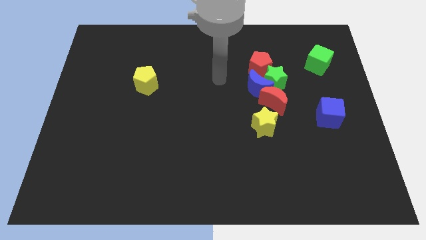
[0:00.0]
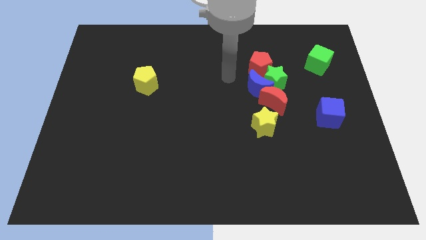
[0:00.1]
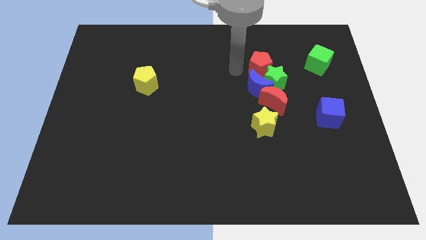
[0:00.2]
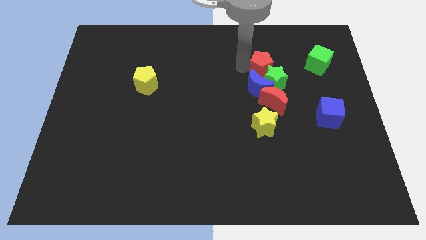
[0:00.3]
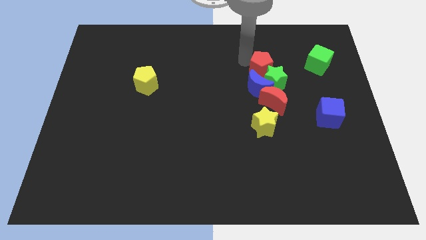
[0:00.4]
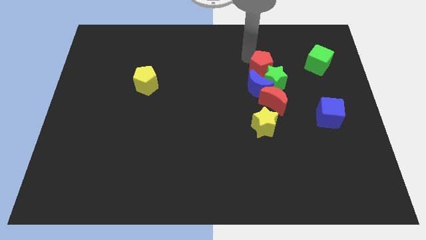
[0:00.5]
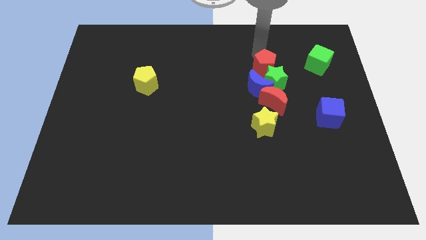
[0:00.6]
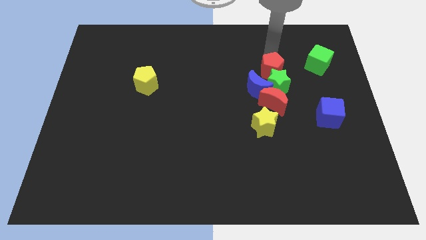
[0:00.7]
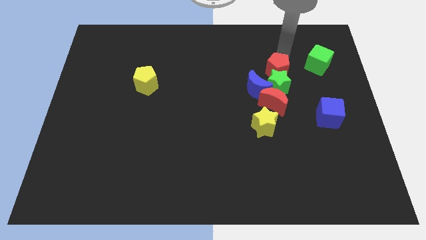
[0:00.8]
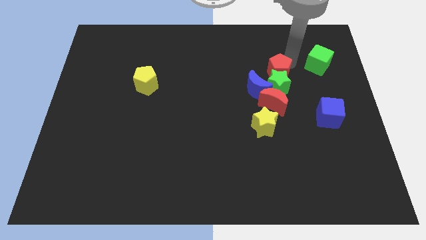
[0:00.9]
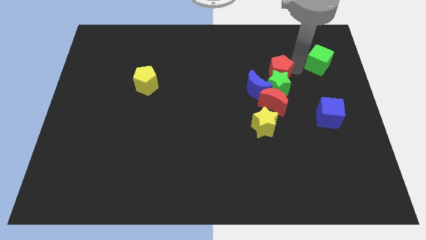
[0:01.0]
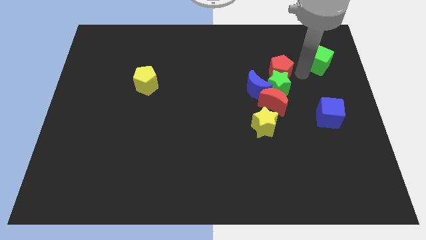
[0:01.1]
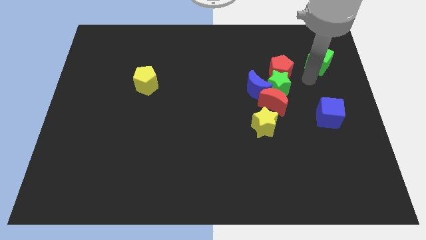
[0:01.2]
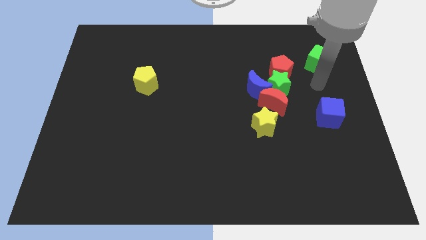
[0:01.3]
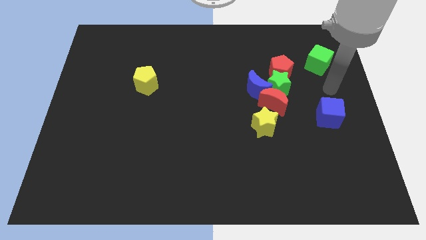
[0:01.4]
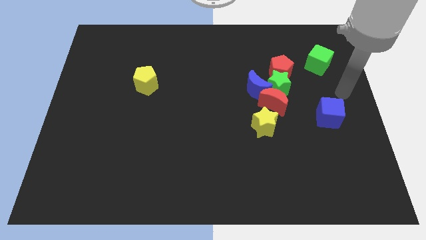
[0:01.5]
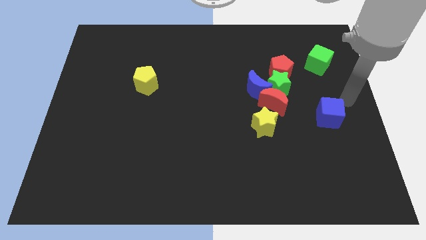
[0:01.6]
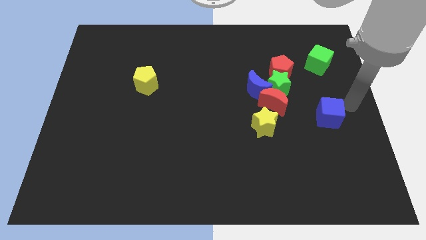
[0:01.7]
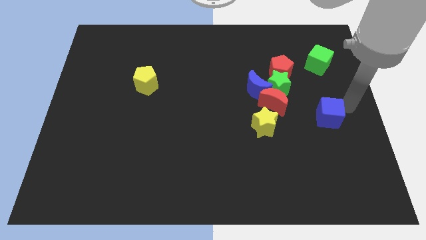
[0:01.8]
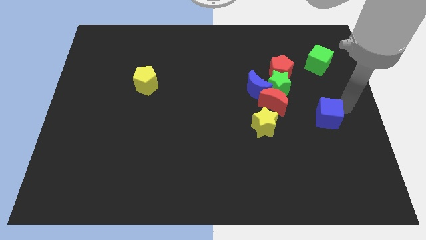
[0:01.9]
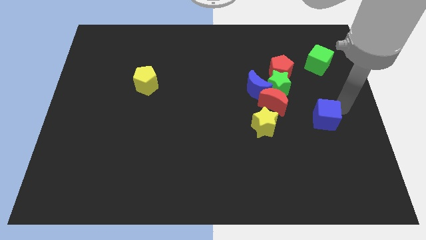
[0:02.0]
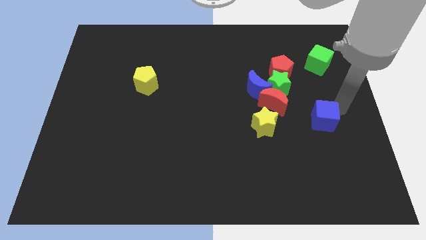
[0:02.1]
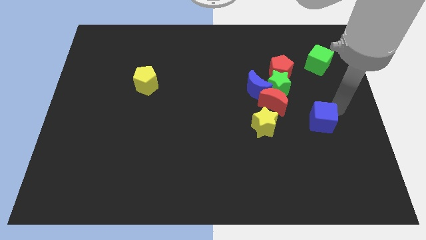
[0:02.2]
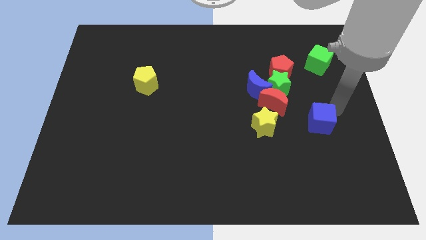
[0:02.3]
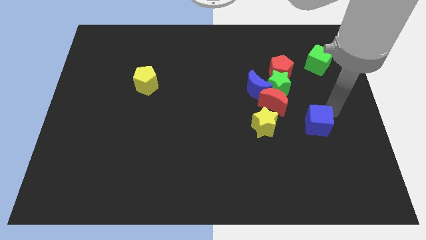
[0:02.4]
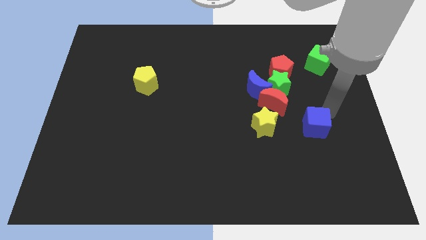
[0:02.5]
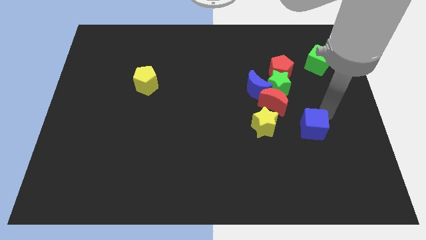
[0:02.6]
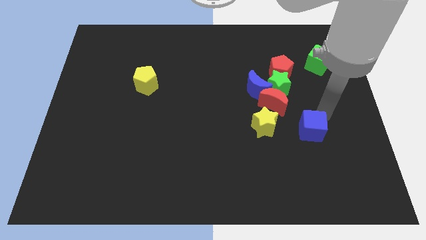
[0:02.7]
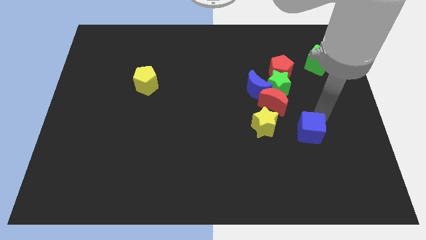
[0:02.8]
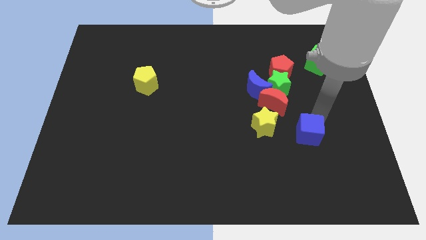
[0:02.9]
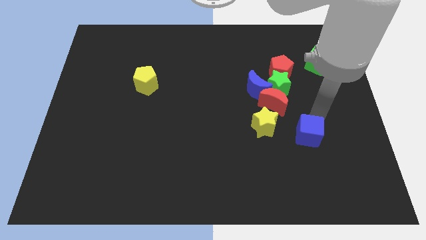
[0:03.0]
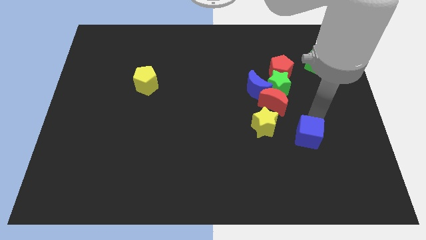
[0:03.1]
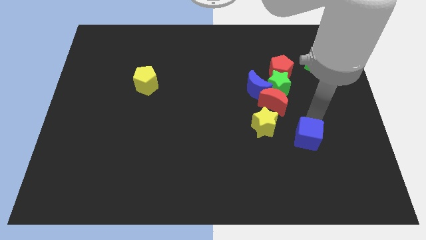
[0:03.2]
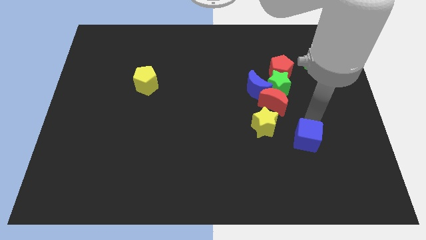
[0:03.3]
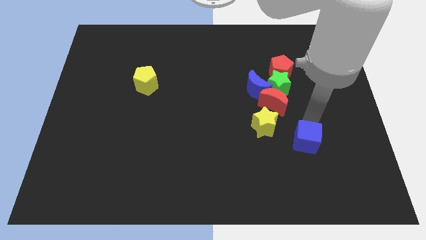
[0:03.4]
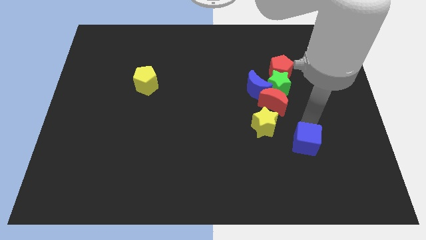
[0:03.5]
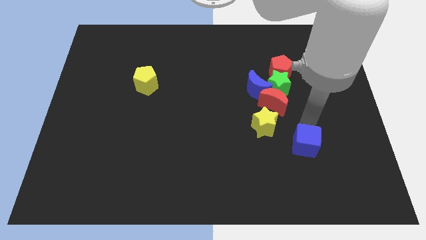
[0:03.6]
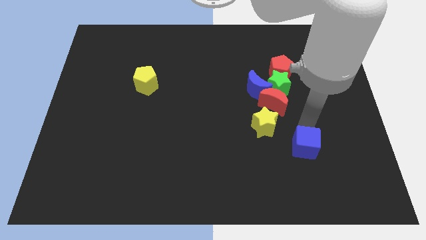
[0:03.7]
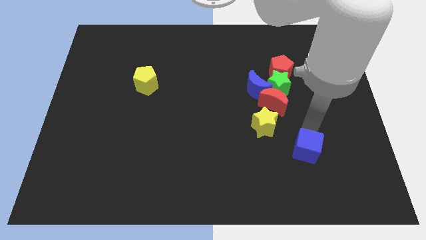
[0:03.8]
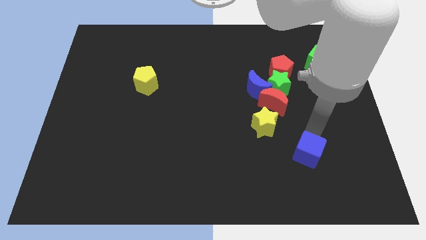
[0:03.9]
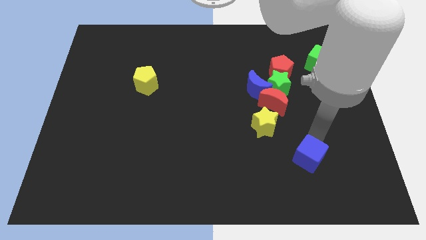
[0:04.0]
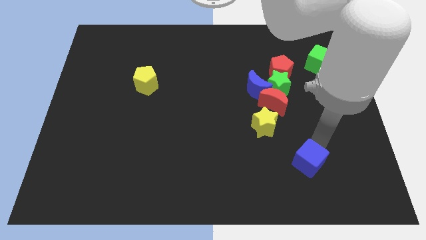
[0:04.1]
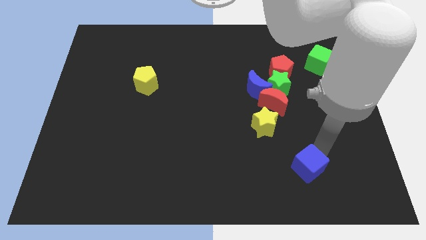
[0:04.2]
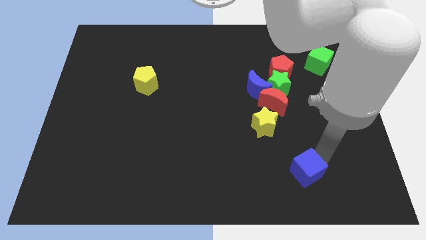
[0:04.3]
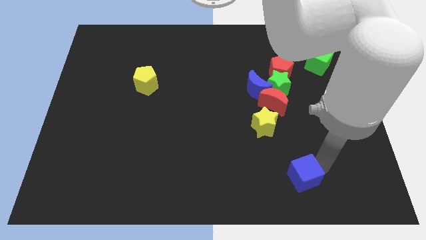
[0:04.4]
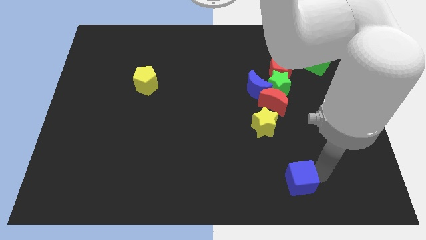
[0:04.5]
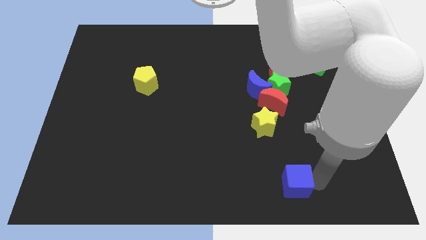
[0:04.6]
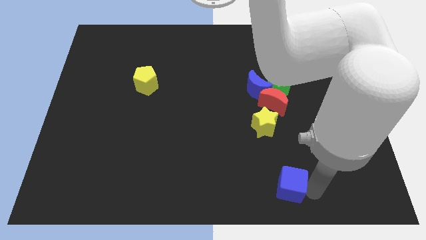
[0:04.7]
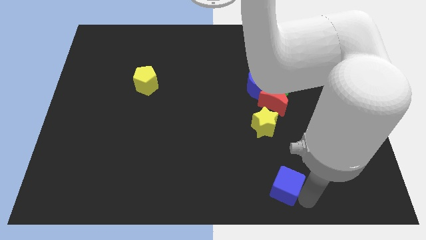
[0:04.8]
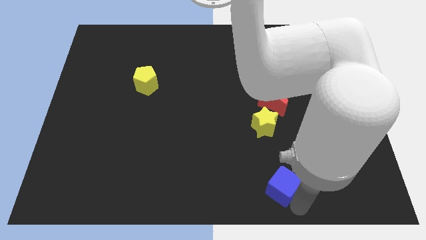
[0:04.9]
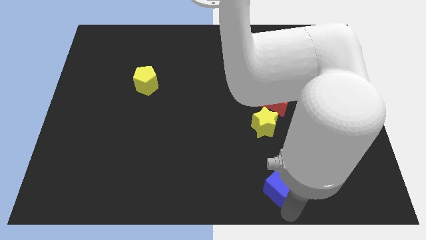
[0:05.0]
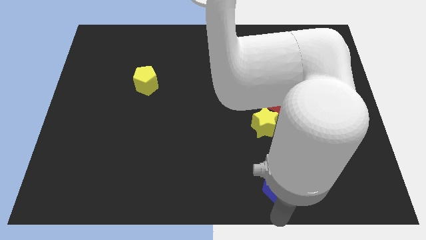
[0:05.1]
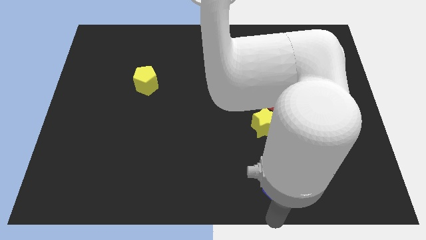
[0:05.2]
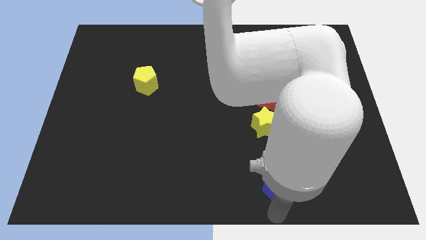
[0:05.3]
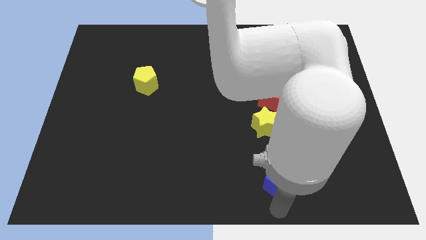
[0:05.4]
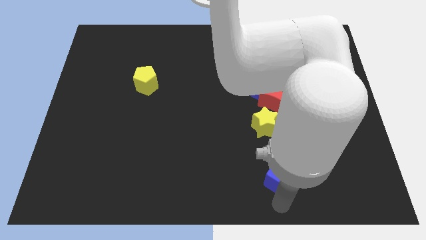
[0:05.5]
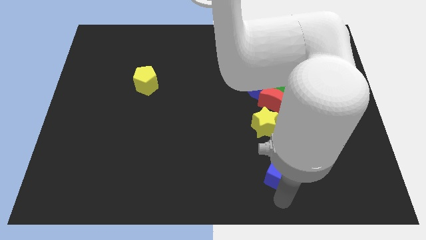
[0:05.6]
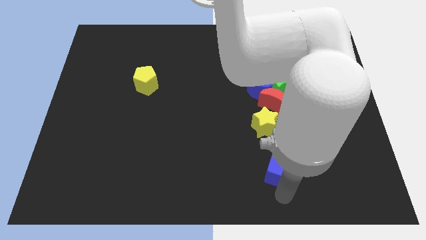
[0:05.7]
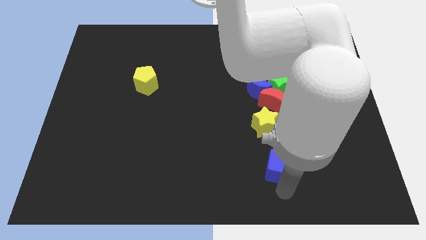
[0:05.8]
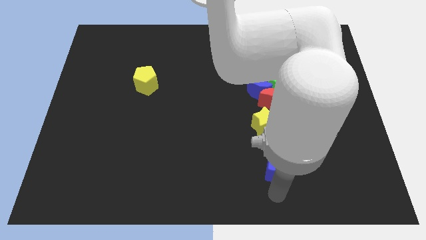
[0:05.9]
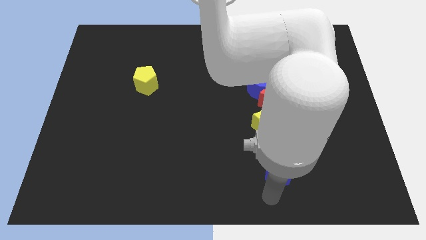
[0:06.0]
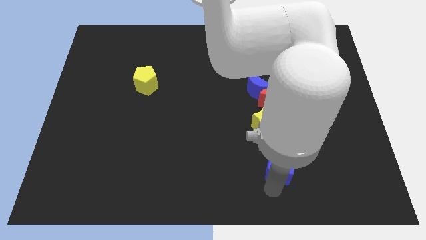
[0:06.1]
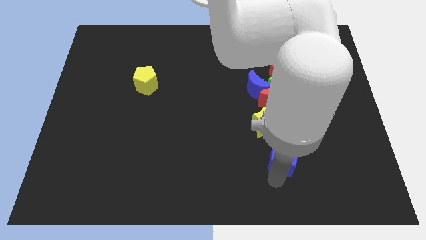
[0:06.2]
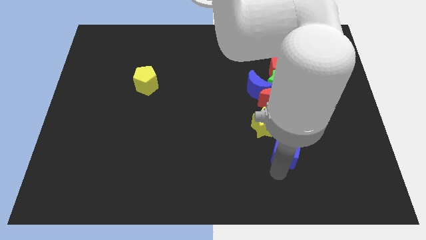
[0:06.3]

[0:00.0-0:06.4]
slide the blue cube to the left slightly

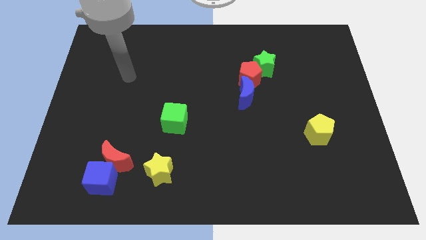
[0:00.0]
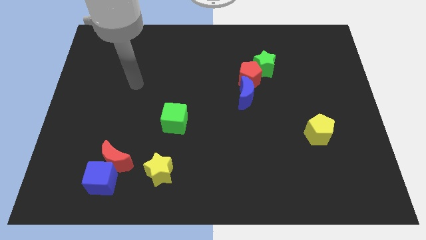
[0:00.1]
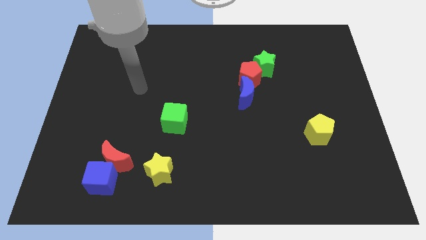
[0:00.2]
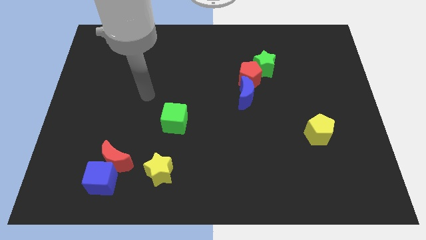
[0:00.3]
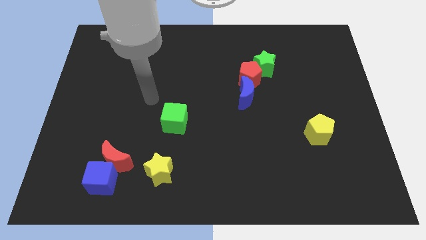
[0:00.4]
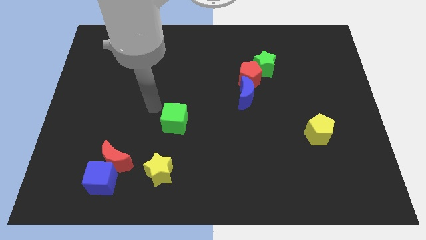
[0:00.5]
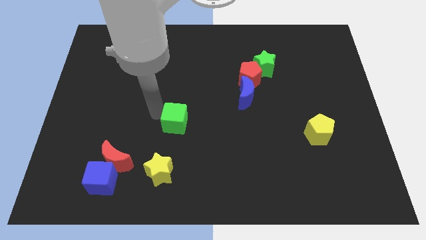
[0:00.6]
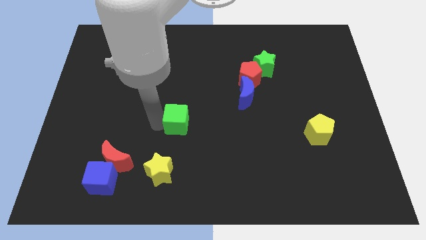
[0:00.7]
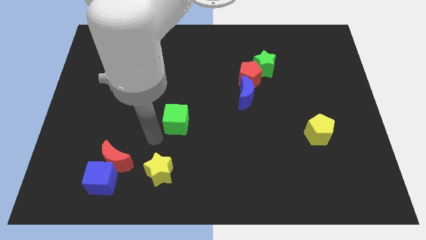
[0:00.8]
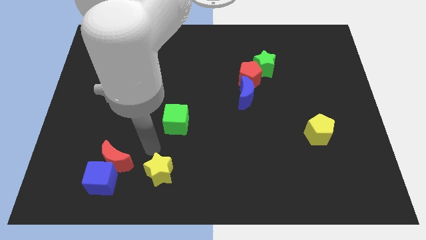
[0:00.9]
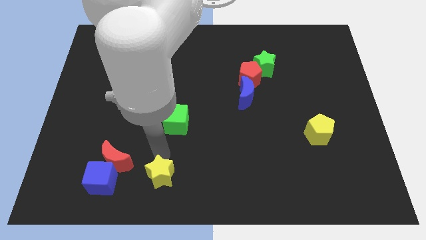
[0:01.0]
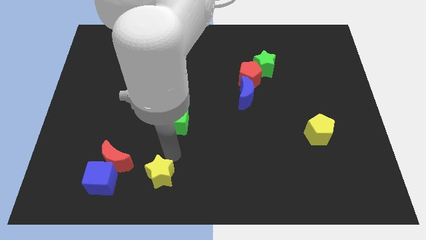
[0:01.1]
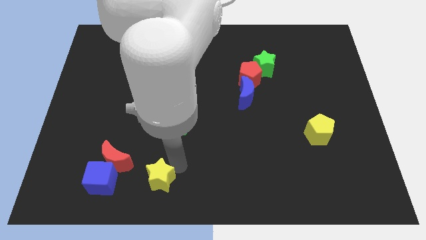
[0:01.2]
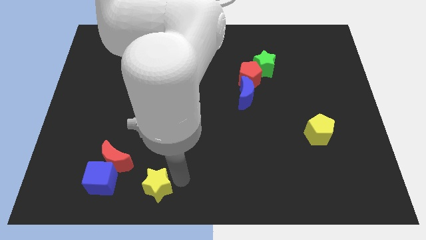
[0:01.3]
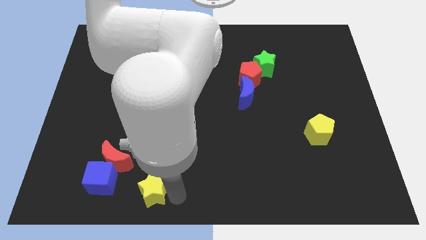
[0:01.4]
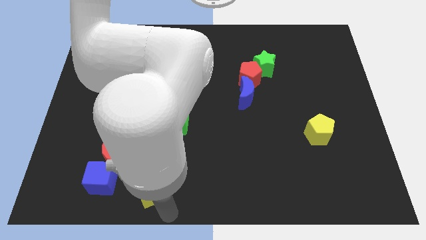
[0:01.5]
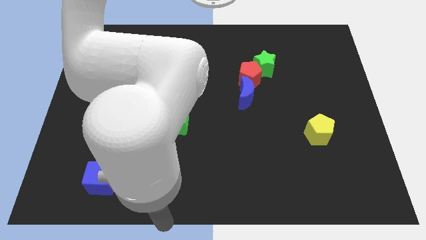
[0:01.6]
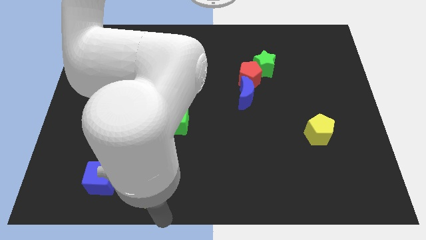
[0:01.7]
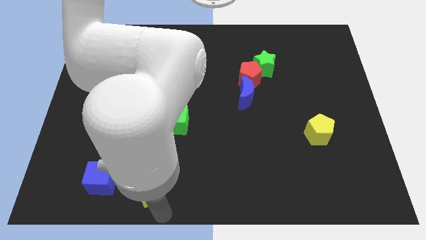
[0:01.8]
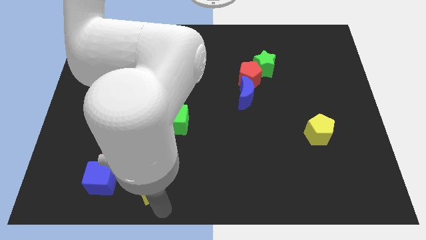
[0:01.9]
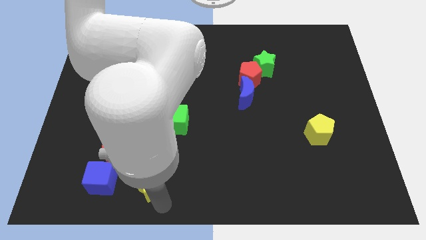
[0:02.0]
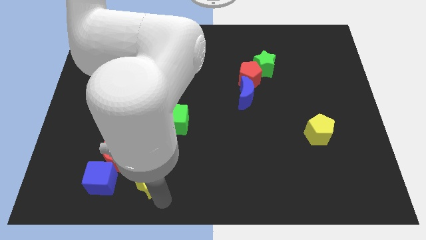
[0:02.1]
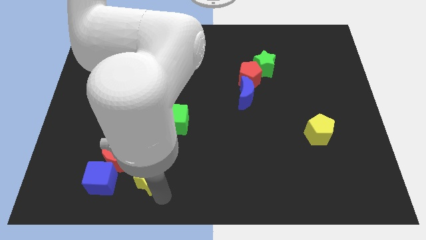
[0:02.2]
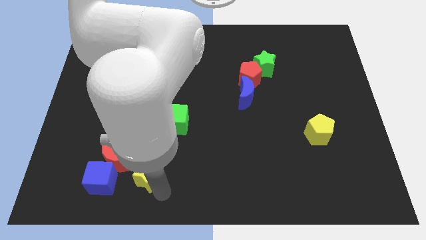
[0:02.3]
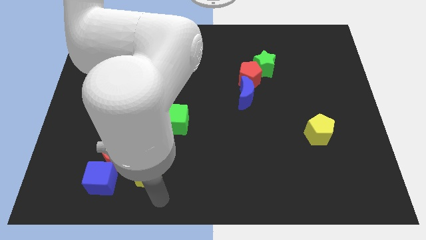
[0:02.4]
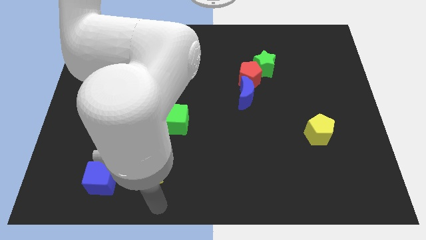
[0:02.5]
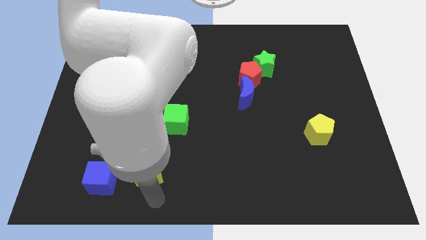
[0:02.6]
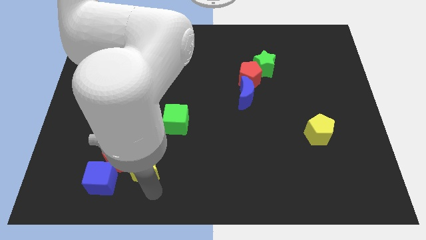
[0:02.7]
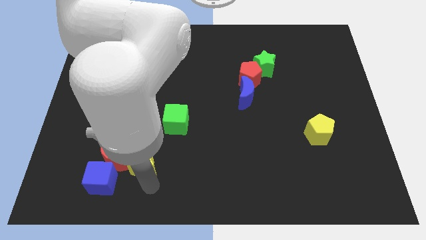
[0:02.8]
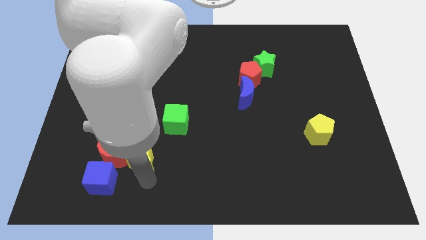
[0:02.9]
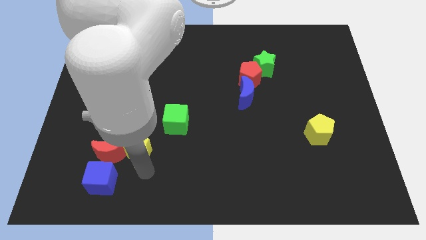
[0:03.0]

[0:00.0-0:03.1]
move the yellow star slightly up and to the left diagonally
